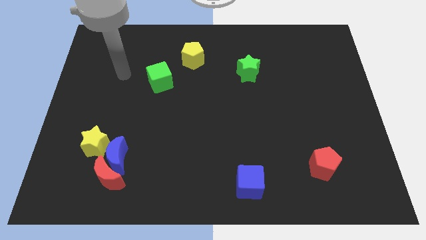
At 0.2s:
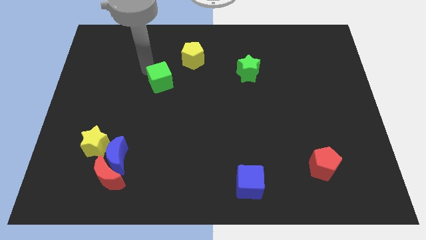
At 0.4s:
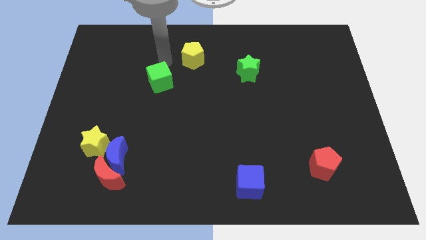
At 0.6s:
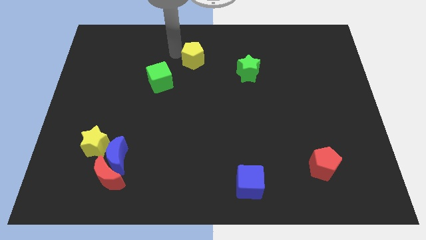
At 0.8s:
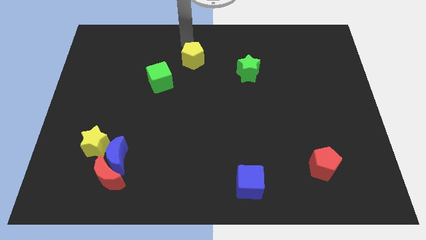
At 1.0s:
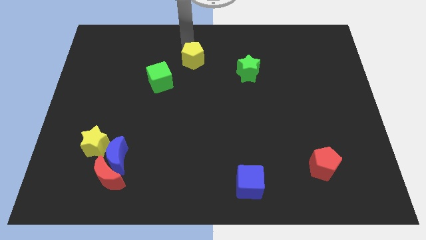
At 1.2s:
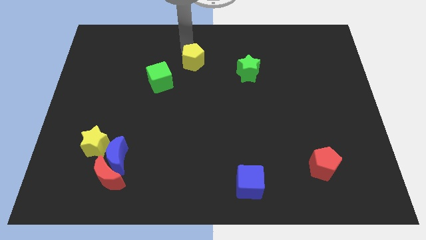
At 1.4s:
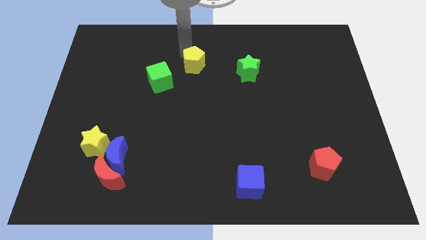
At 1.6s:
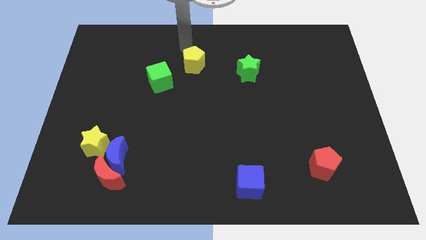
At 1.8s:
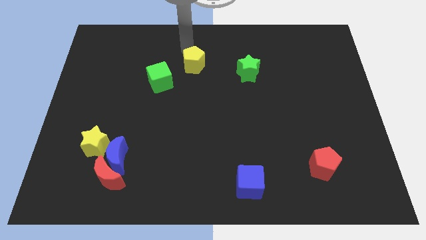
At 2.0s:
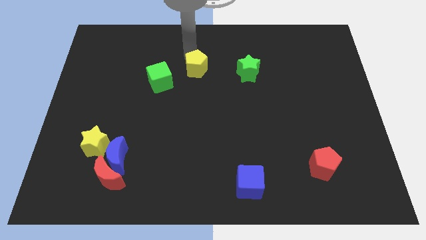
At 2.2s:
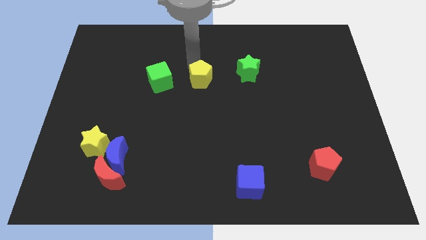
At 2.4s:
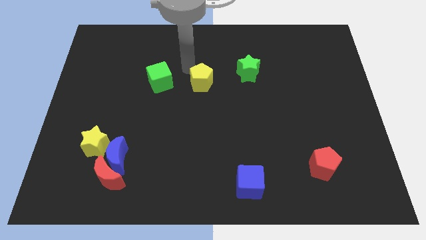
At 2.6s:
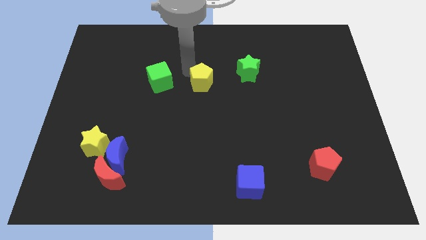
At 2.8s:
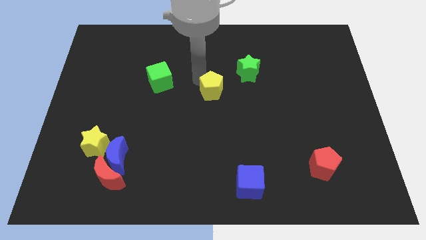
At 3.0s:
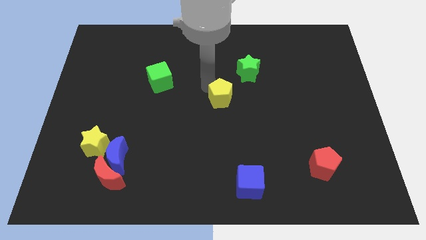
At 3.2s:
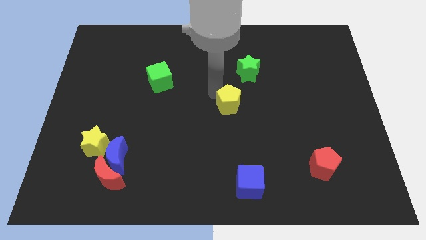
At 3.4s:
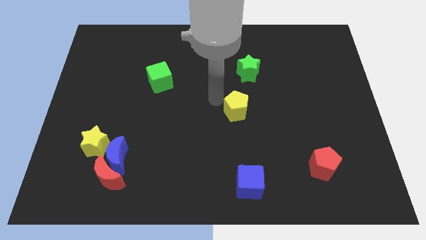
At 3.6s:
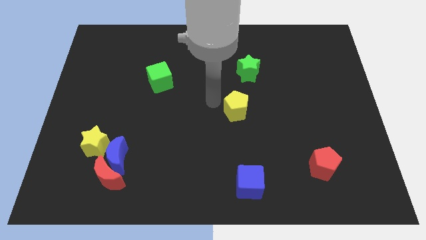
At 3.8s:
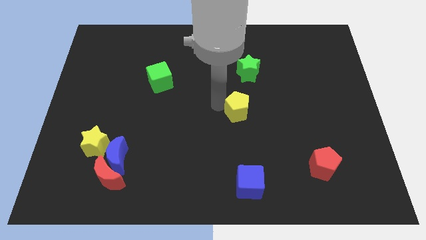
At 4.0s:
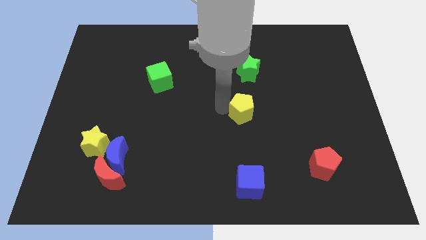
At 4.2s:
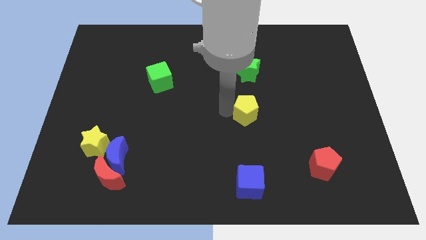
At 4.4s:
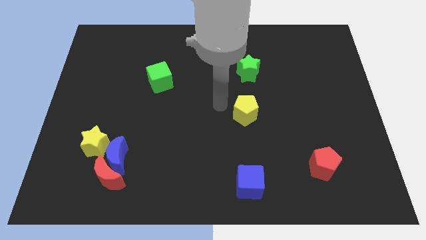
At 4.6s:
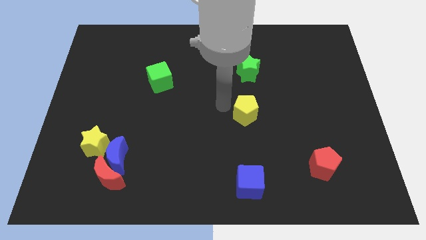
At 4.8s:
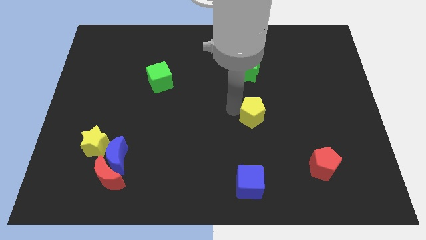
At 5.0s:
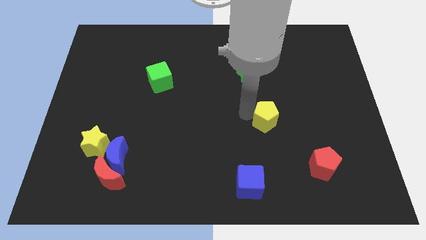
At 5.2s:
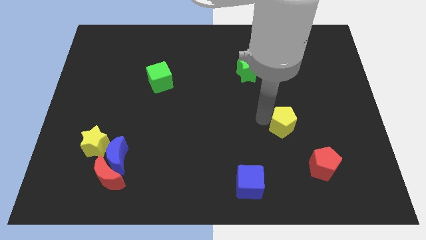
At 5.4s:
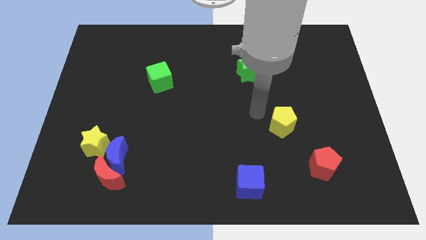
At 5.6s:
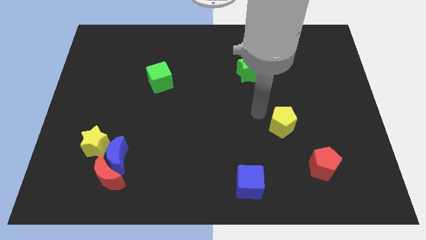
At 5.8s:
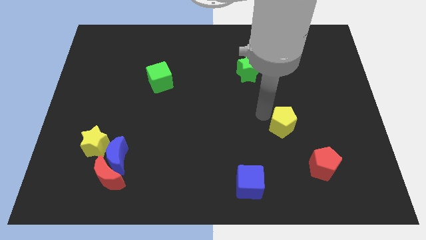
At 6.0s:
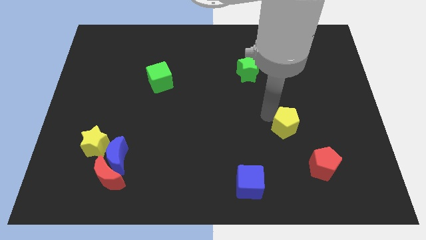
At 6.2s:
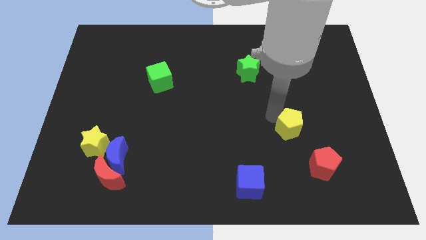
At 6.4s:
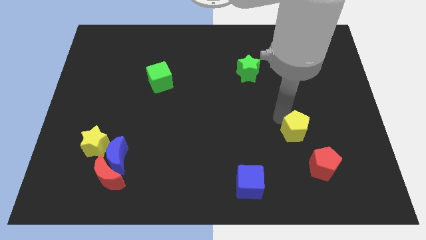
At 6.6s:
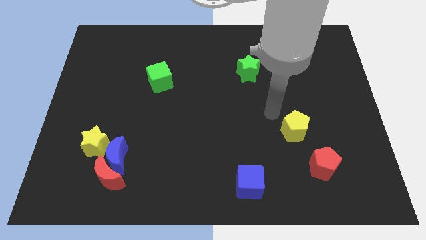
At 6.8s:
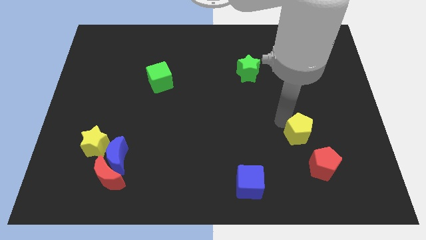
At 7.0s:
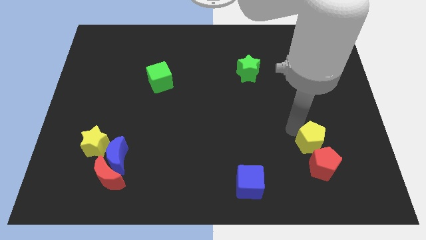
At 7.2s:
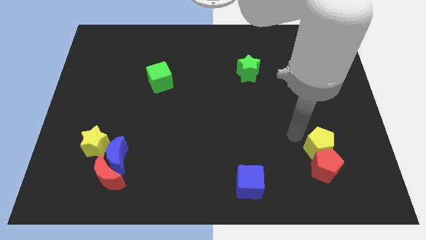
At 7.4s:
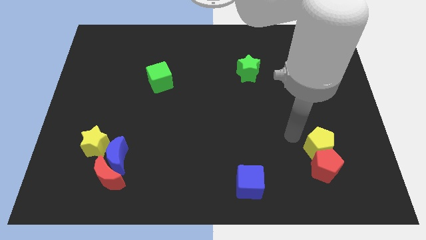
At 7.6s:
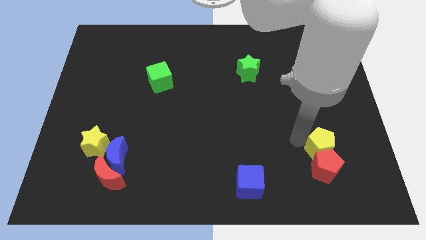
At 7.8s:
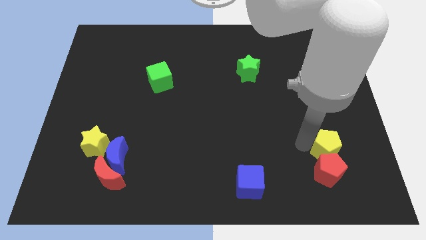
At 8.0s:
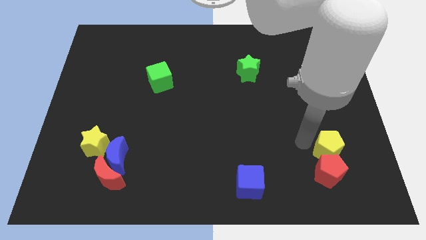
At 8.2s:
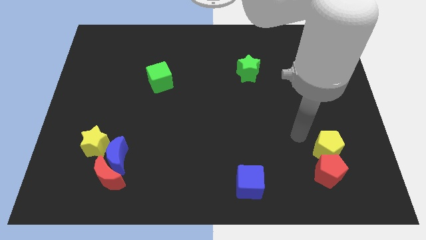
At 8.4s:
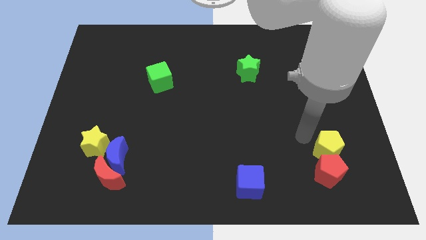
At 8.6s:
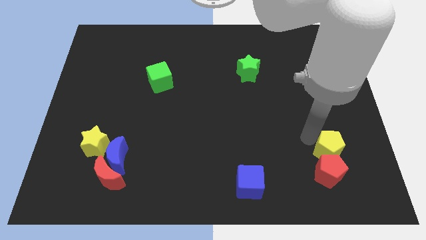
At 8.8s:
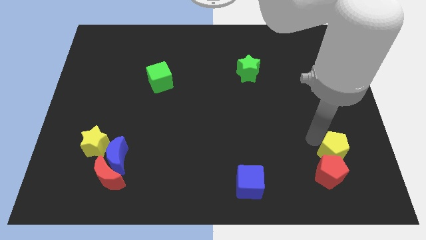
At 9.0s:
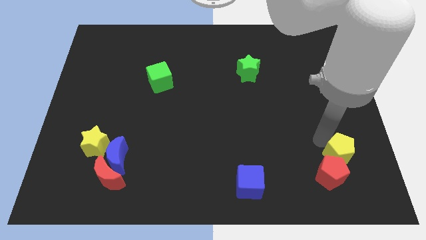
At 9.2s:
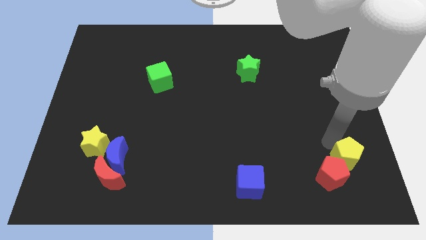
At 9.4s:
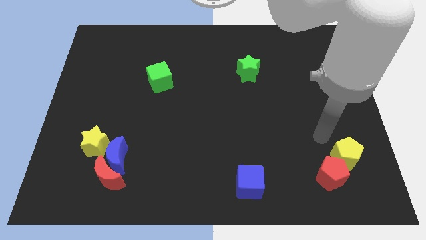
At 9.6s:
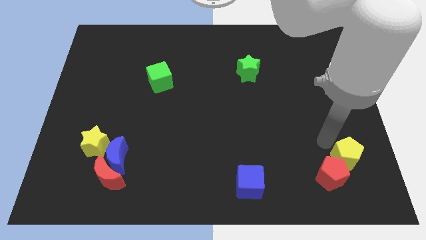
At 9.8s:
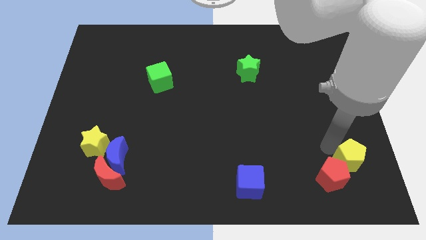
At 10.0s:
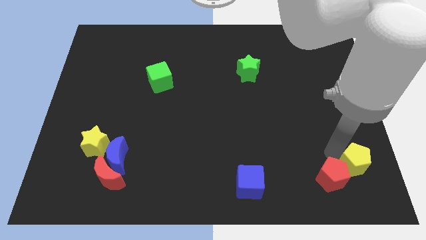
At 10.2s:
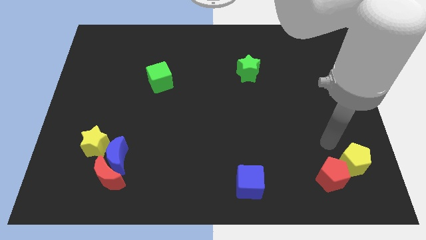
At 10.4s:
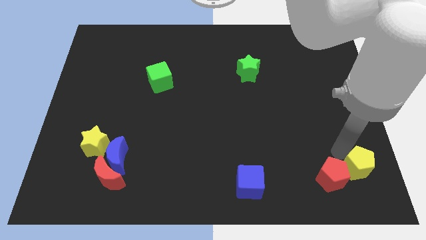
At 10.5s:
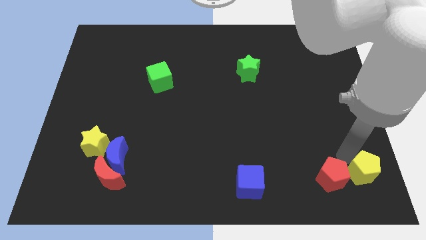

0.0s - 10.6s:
slide the yellow pentagon to the bottom right
